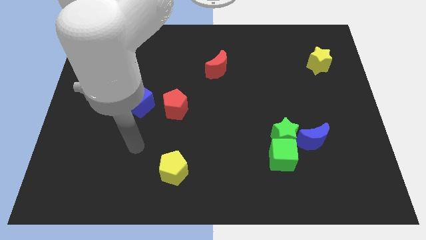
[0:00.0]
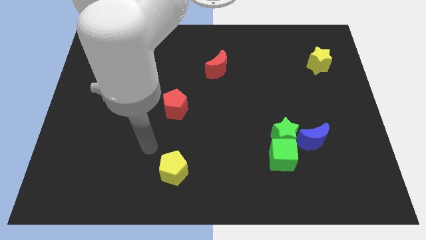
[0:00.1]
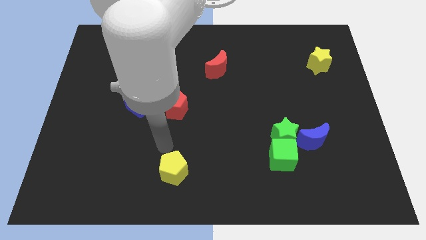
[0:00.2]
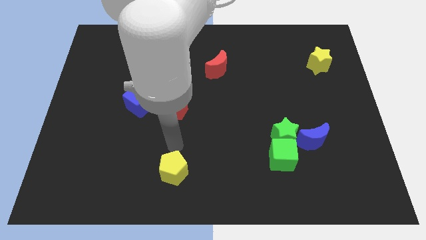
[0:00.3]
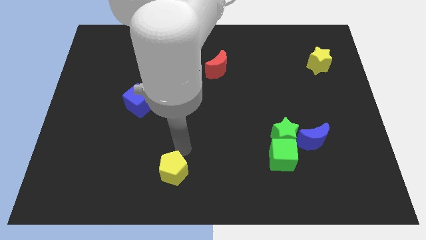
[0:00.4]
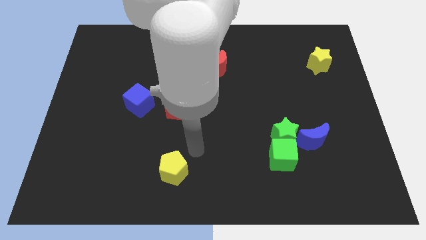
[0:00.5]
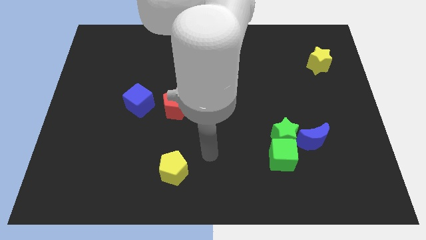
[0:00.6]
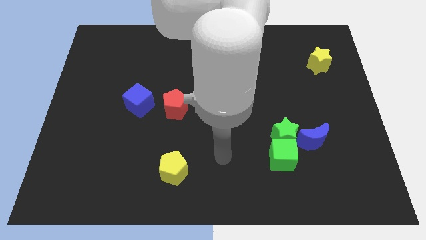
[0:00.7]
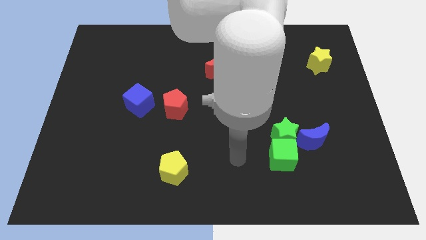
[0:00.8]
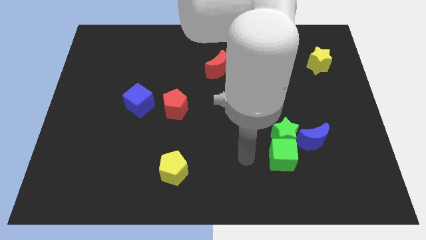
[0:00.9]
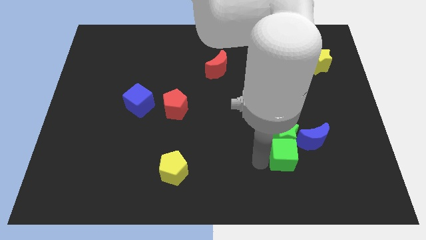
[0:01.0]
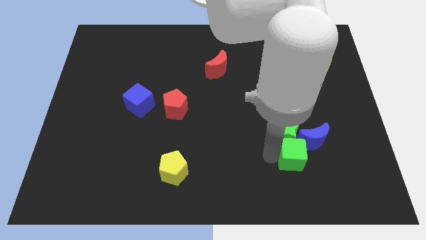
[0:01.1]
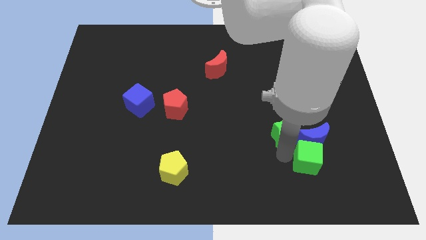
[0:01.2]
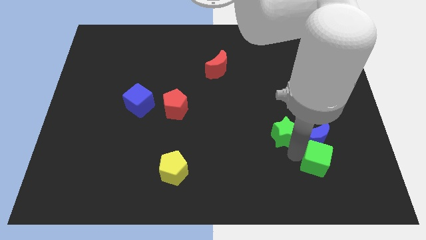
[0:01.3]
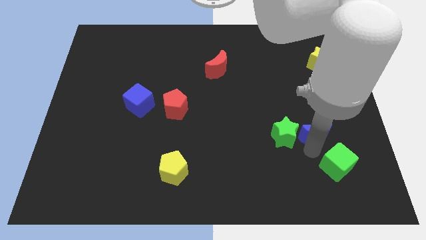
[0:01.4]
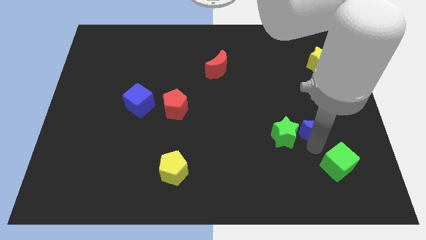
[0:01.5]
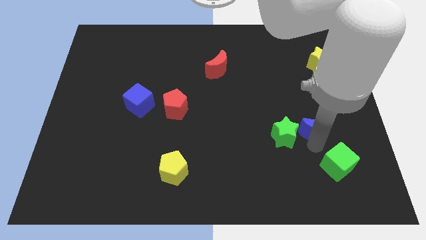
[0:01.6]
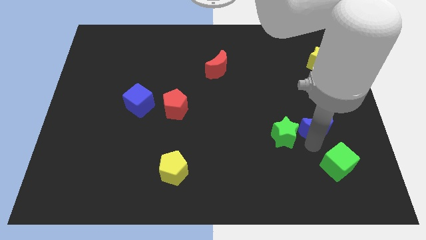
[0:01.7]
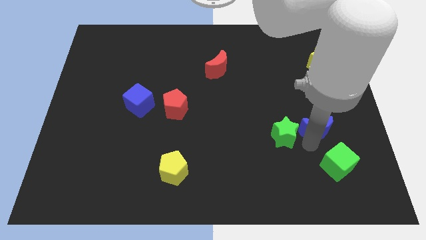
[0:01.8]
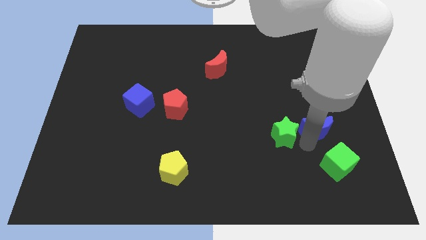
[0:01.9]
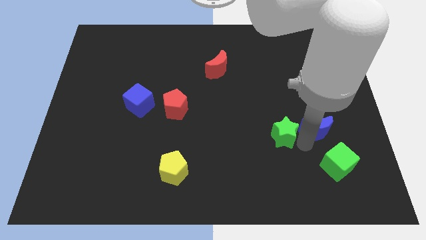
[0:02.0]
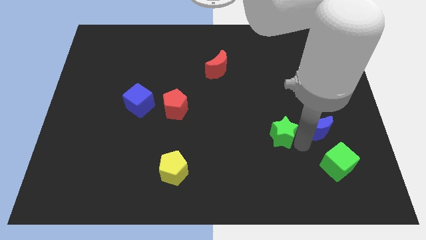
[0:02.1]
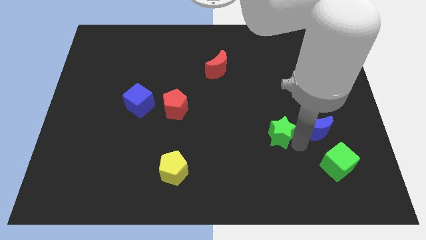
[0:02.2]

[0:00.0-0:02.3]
move the green star away from the green cube and blue moon

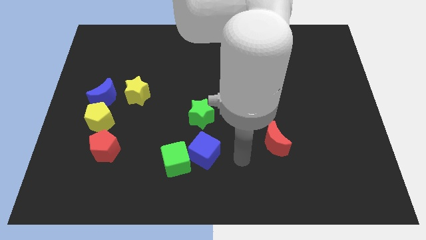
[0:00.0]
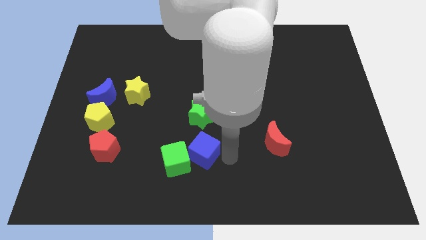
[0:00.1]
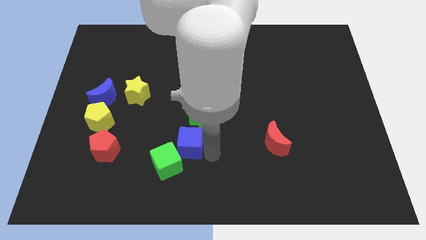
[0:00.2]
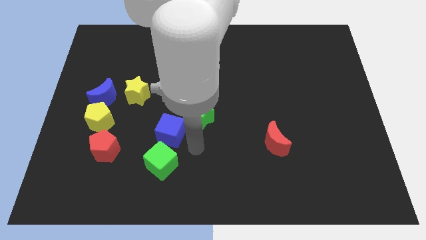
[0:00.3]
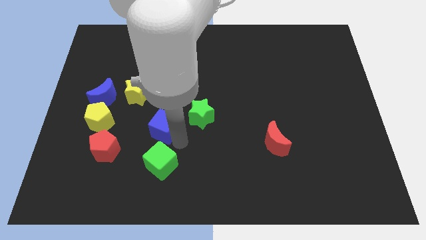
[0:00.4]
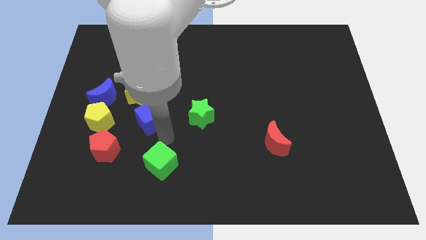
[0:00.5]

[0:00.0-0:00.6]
separate the green cube from the blue cube

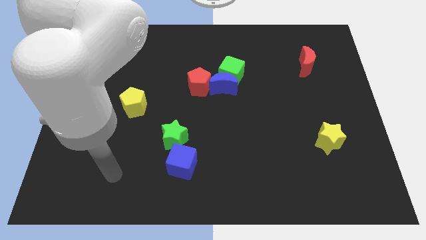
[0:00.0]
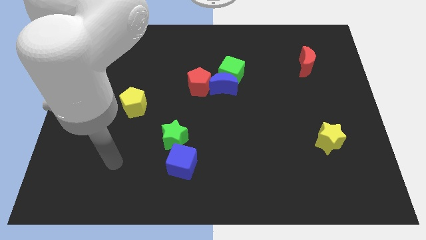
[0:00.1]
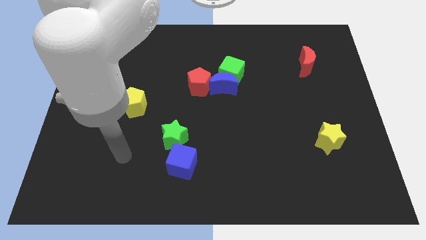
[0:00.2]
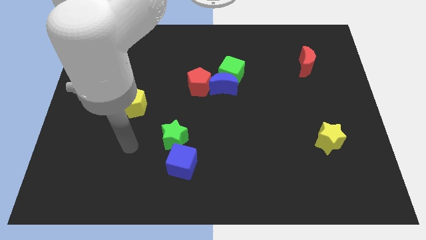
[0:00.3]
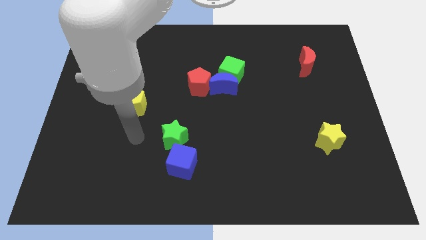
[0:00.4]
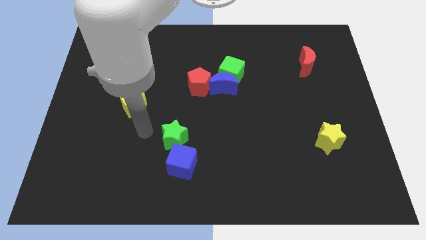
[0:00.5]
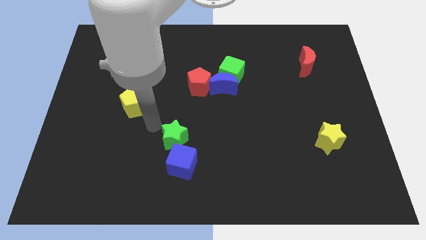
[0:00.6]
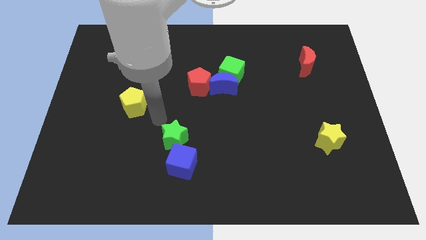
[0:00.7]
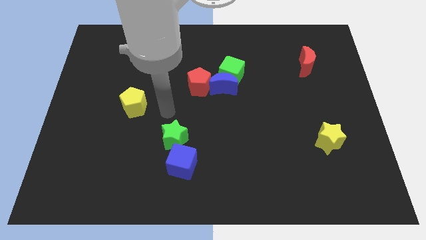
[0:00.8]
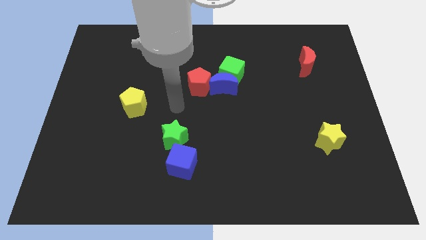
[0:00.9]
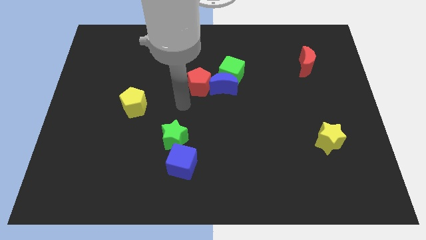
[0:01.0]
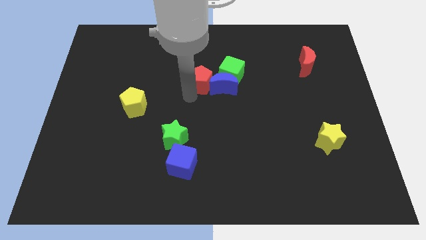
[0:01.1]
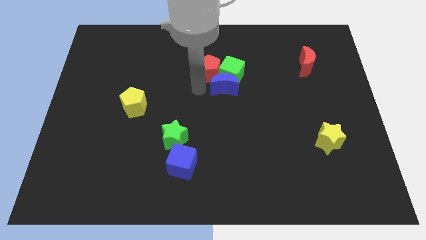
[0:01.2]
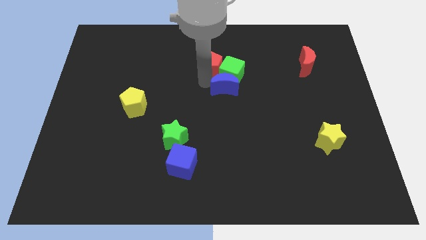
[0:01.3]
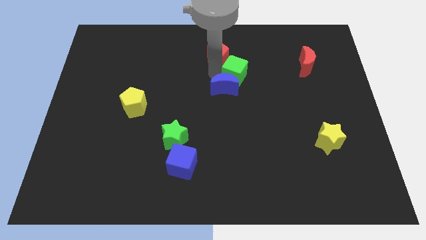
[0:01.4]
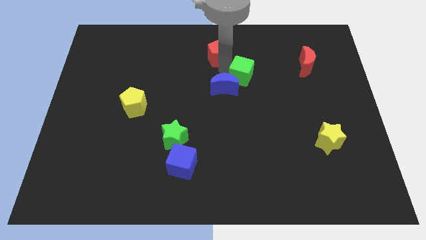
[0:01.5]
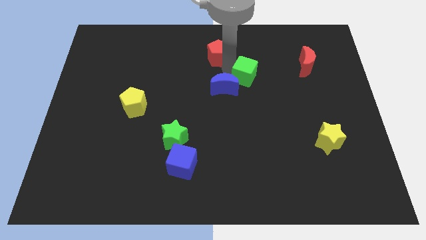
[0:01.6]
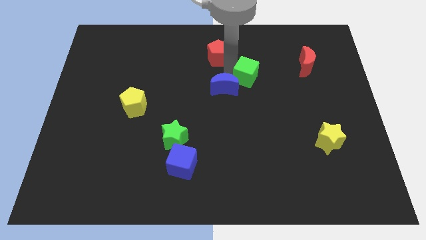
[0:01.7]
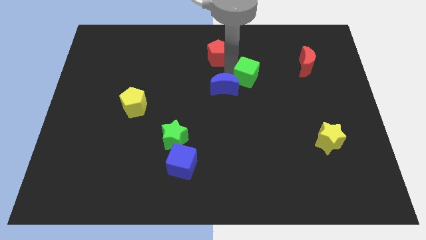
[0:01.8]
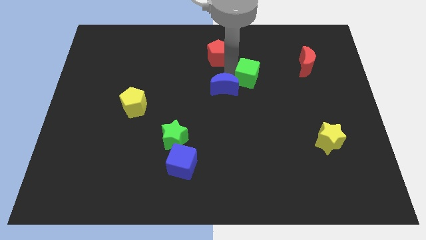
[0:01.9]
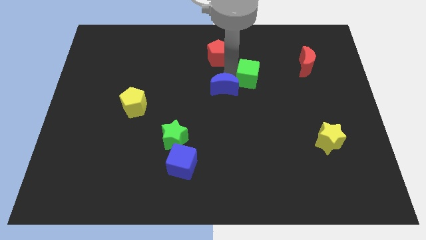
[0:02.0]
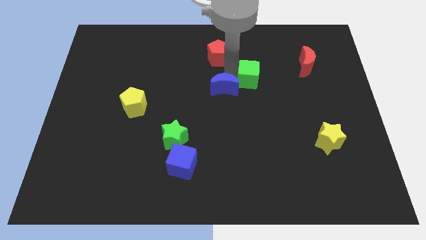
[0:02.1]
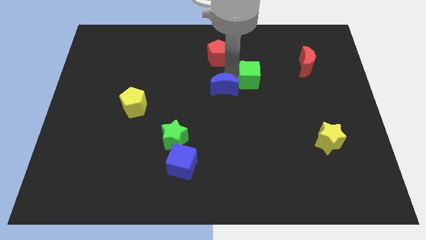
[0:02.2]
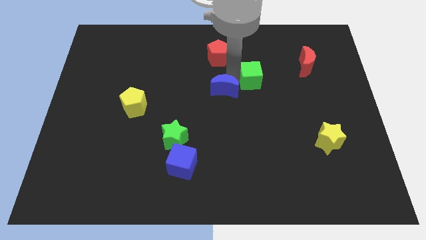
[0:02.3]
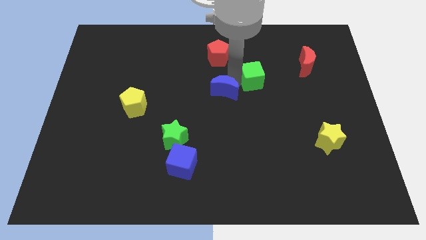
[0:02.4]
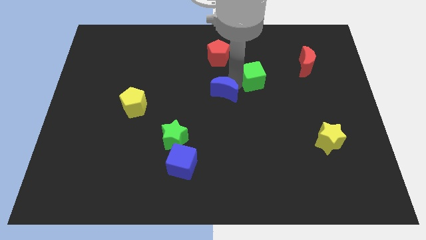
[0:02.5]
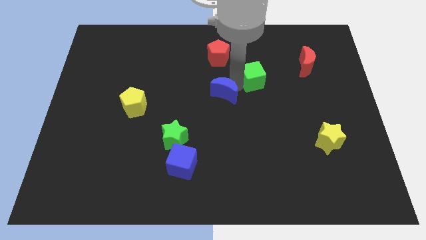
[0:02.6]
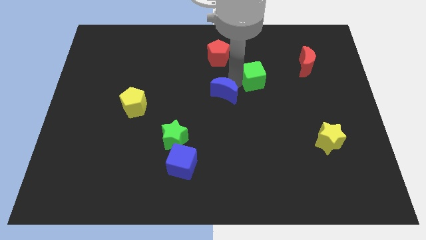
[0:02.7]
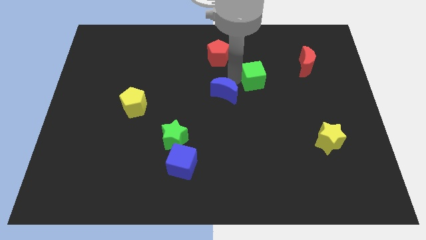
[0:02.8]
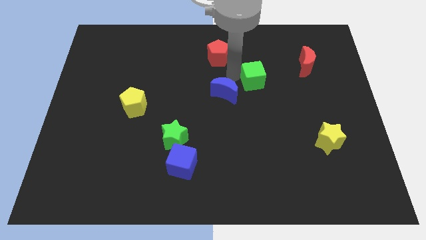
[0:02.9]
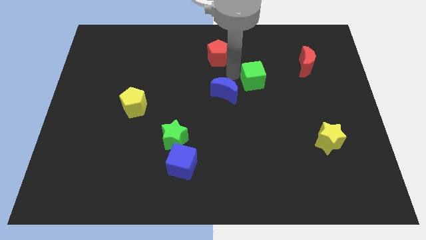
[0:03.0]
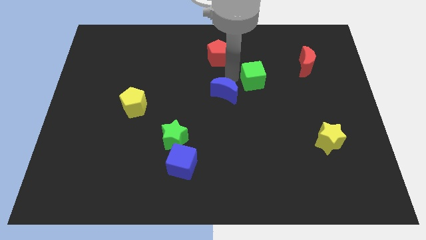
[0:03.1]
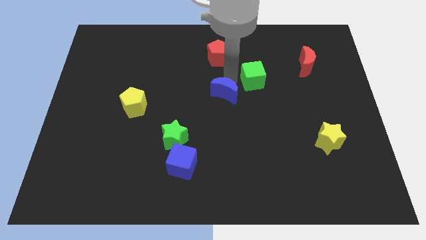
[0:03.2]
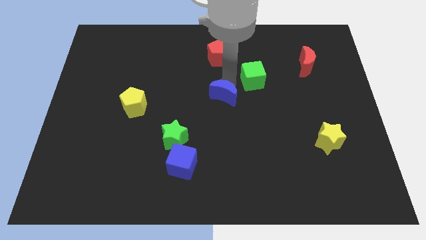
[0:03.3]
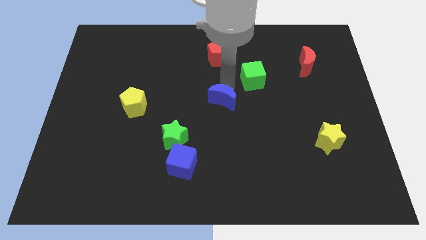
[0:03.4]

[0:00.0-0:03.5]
separate the blue moon from the green cube and red pentagon

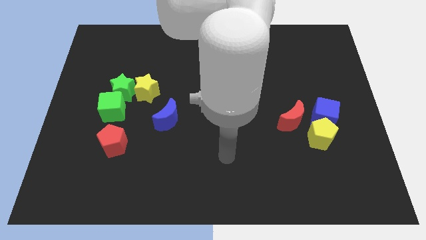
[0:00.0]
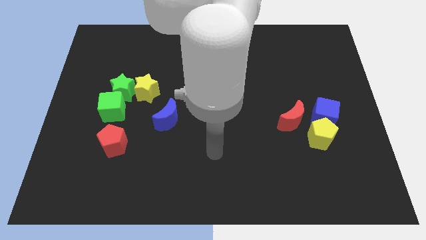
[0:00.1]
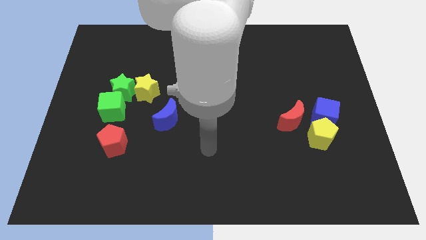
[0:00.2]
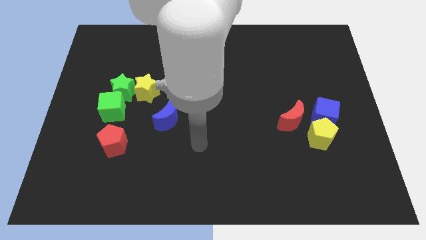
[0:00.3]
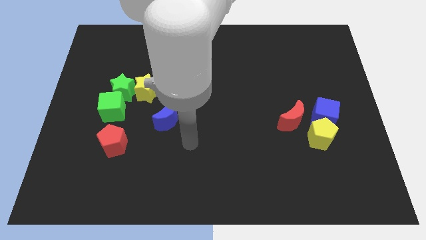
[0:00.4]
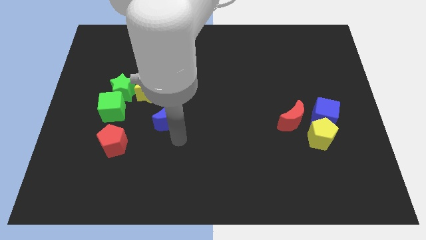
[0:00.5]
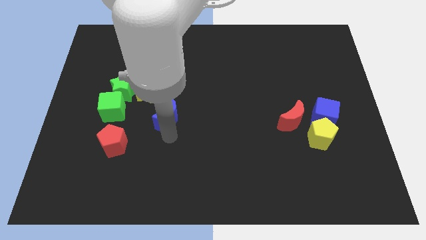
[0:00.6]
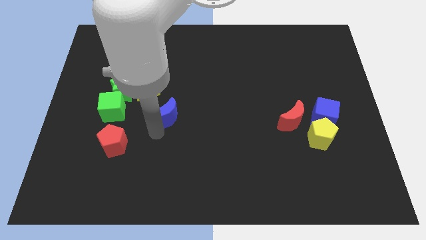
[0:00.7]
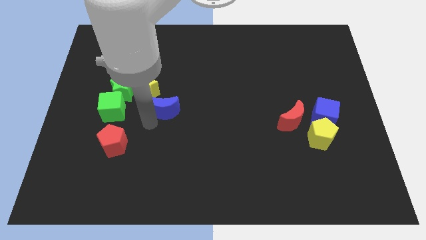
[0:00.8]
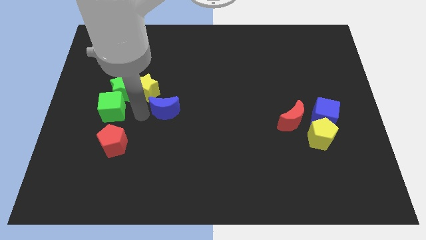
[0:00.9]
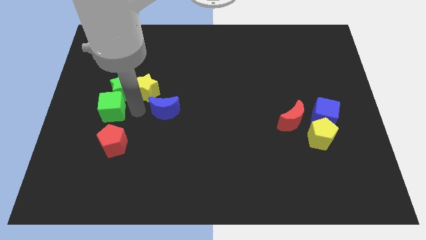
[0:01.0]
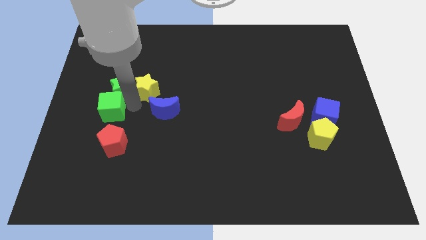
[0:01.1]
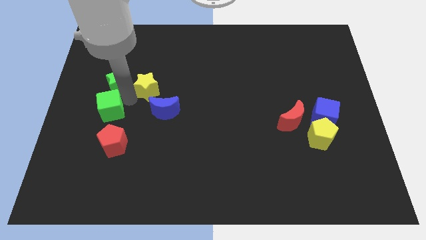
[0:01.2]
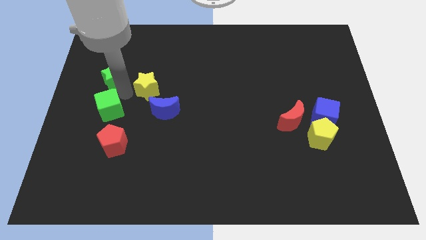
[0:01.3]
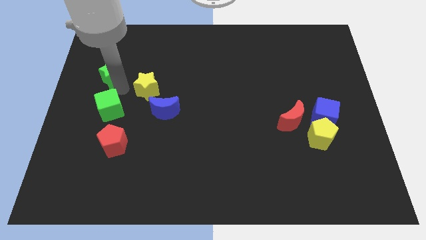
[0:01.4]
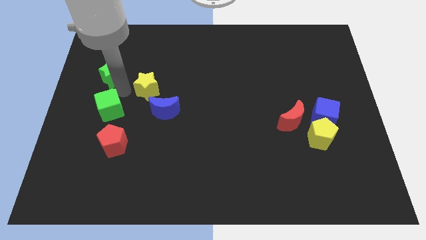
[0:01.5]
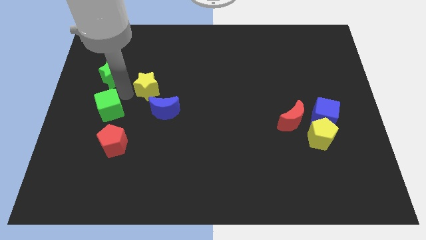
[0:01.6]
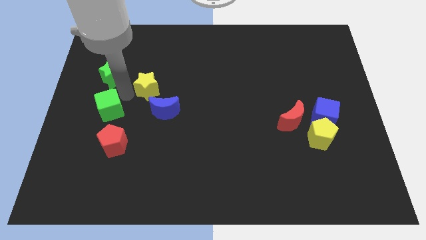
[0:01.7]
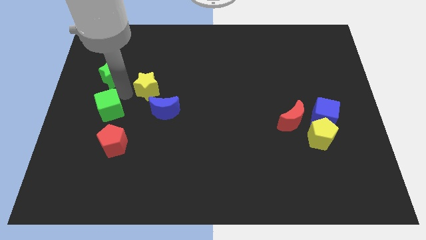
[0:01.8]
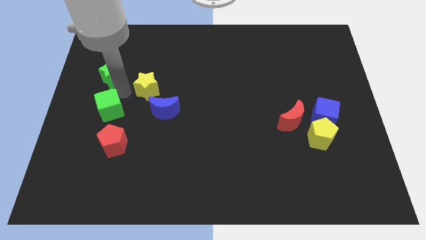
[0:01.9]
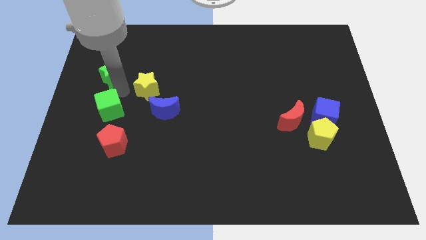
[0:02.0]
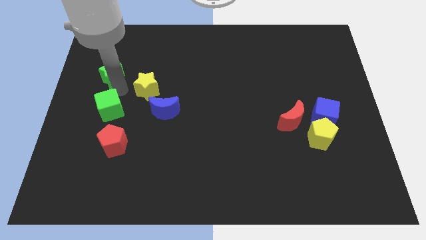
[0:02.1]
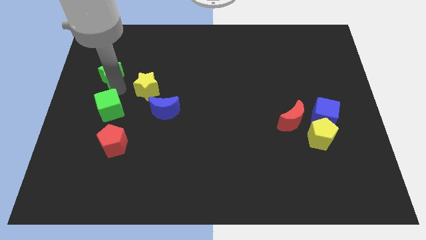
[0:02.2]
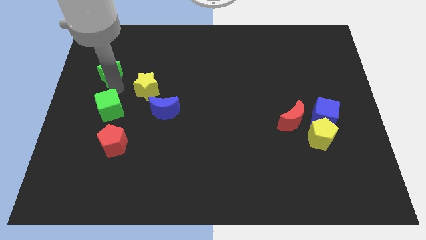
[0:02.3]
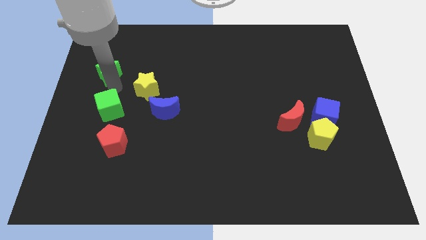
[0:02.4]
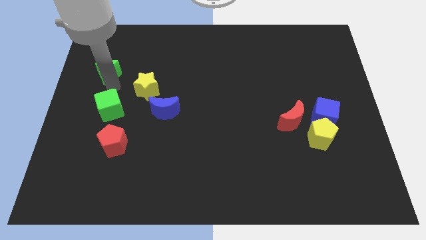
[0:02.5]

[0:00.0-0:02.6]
move the green star away from the yellow star and green cube

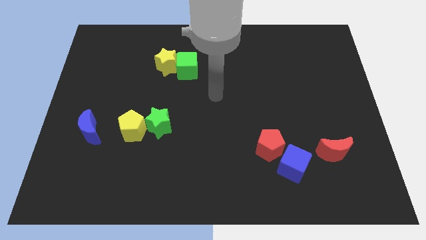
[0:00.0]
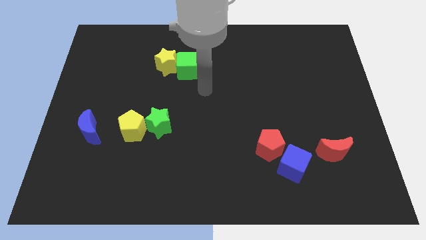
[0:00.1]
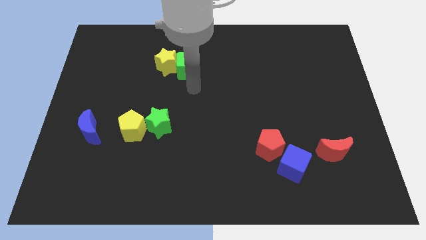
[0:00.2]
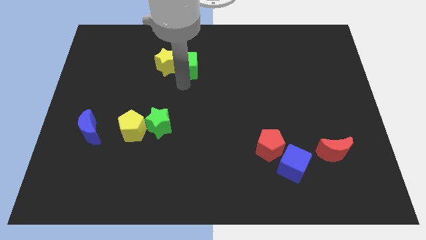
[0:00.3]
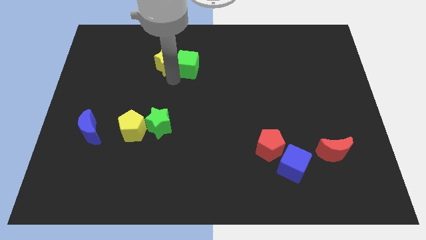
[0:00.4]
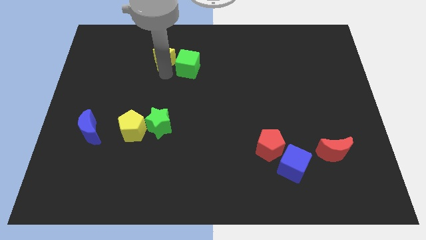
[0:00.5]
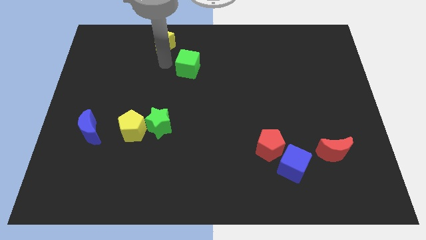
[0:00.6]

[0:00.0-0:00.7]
separate the green cube from the yellow star
